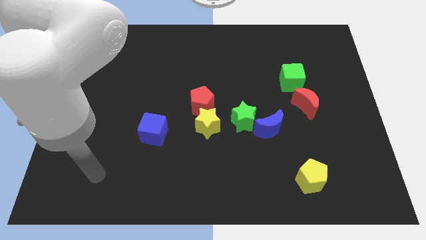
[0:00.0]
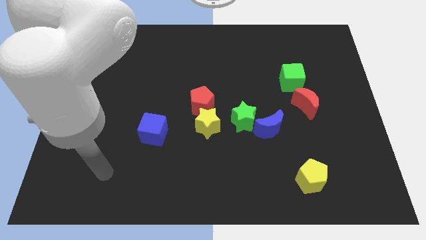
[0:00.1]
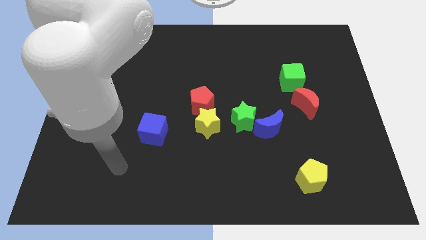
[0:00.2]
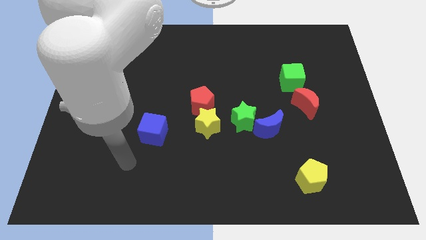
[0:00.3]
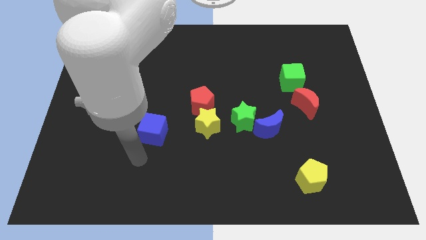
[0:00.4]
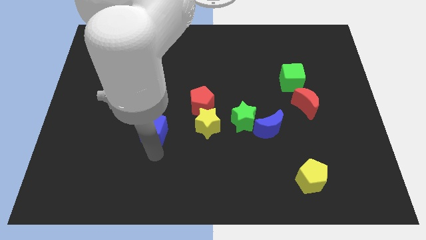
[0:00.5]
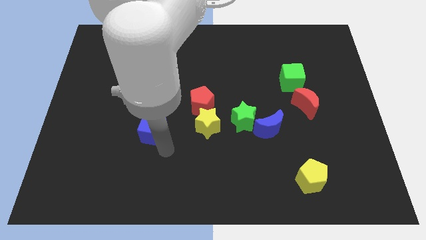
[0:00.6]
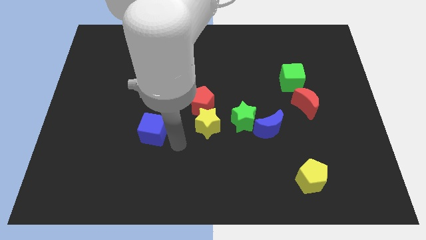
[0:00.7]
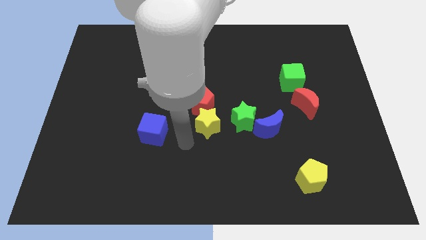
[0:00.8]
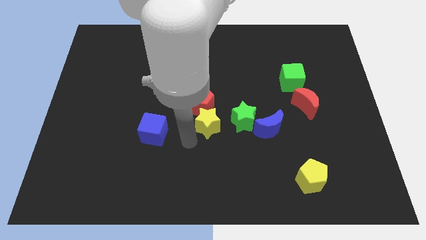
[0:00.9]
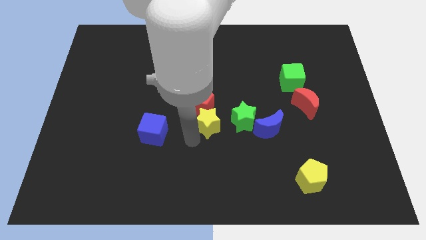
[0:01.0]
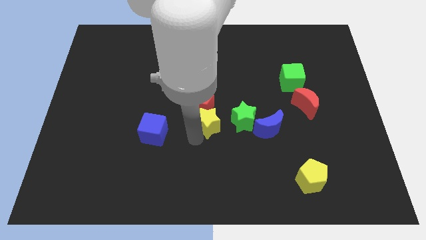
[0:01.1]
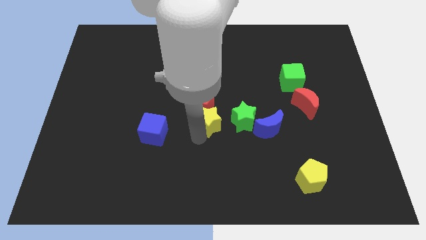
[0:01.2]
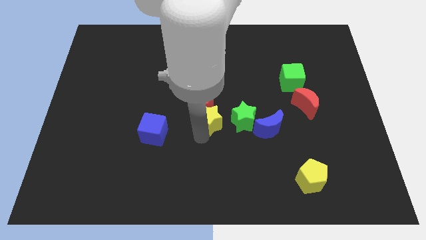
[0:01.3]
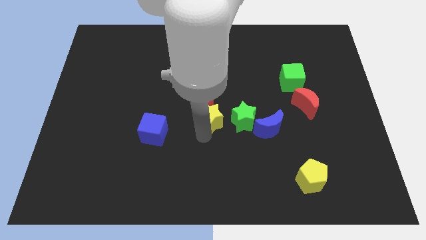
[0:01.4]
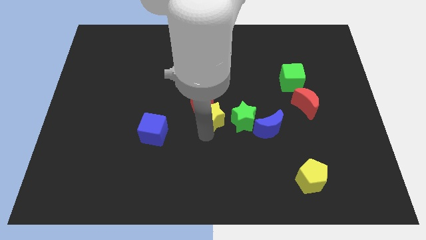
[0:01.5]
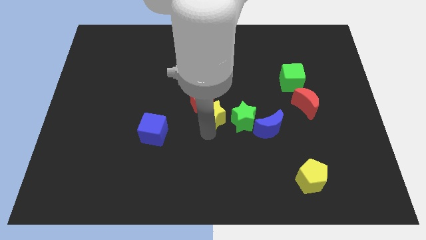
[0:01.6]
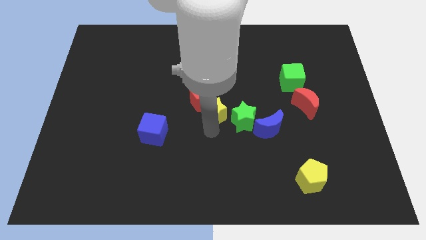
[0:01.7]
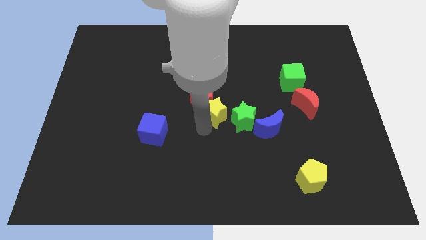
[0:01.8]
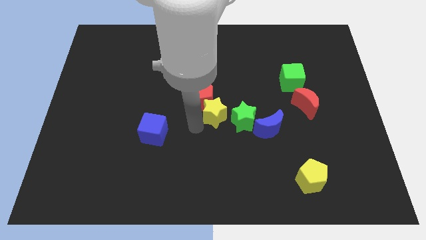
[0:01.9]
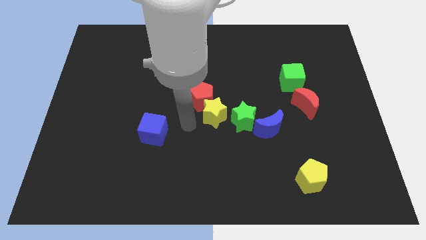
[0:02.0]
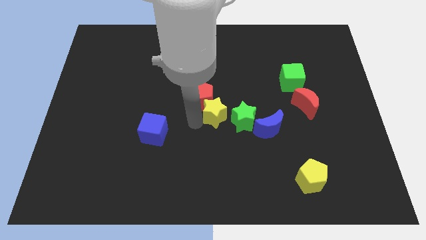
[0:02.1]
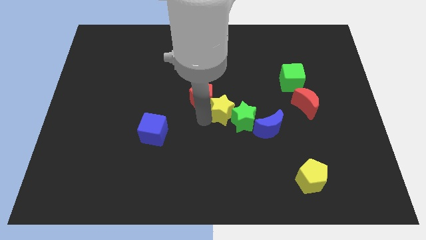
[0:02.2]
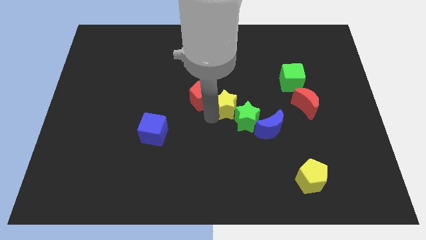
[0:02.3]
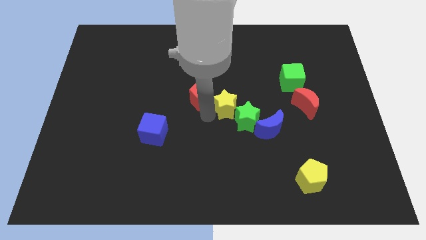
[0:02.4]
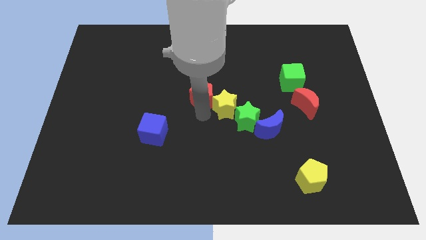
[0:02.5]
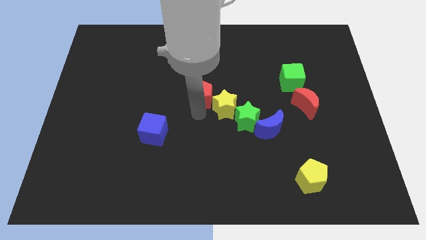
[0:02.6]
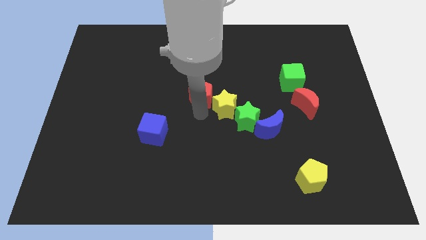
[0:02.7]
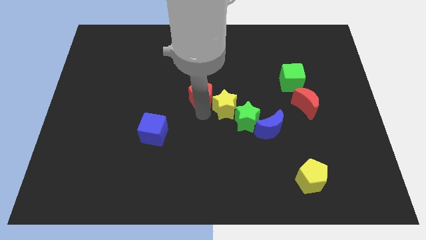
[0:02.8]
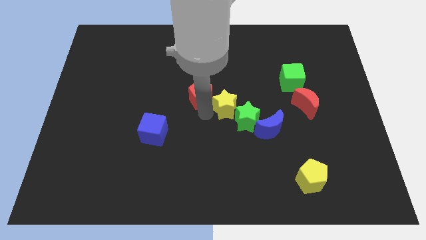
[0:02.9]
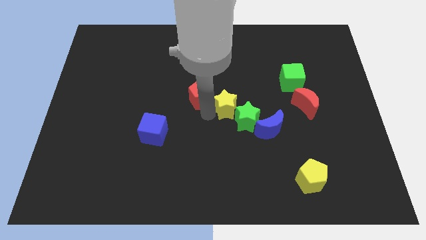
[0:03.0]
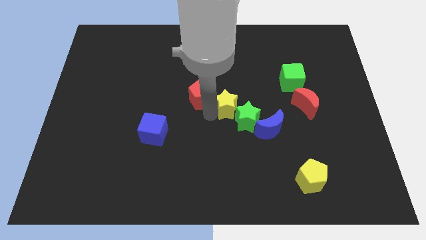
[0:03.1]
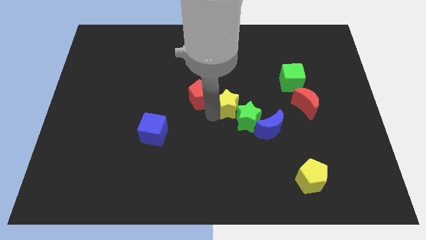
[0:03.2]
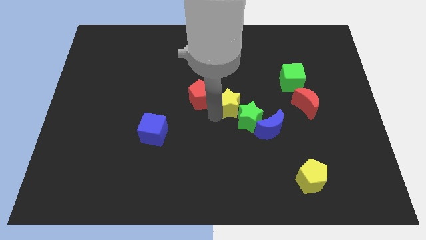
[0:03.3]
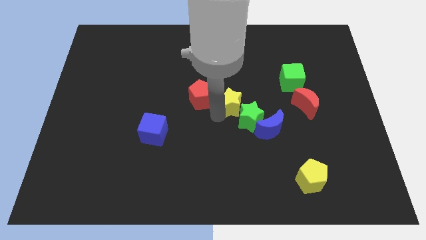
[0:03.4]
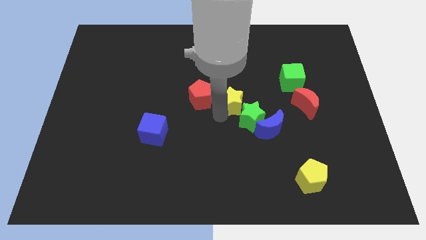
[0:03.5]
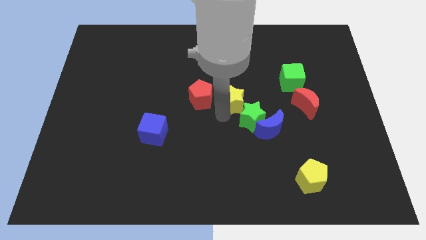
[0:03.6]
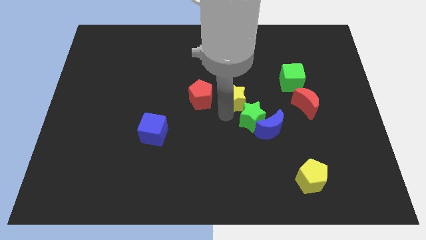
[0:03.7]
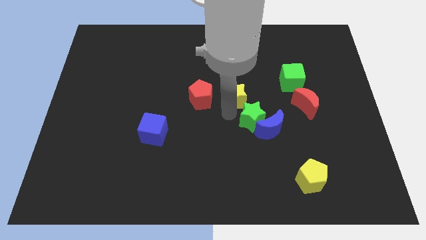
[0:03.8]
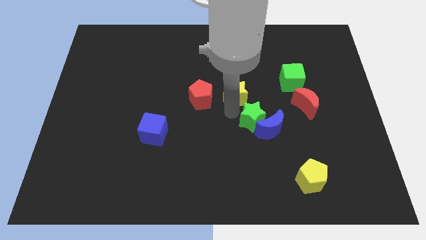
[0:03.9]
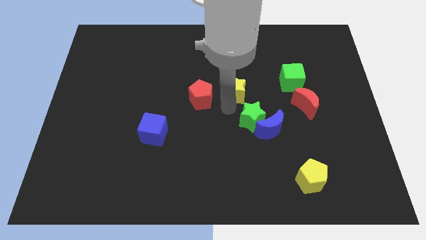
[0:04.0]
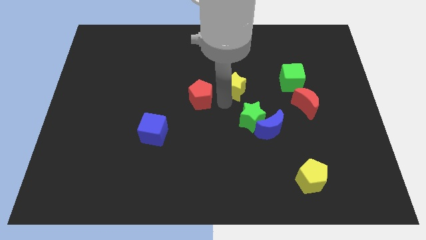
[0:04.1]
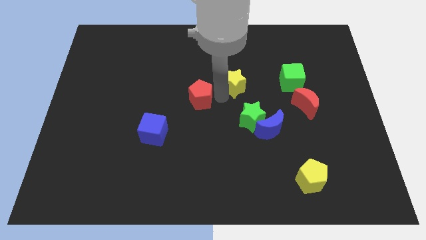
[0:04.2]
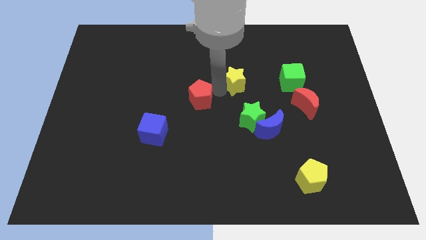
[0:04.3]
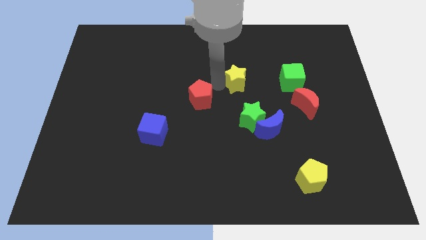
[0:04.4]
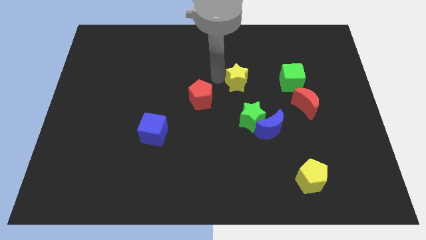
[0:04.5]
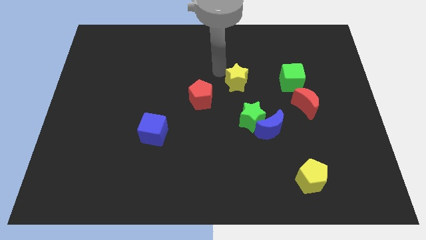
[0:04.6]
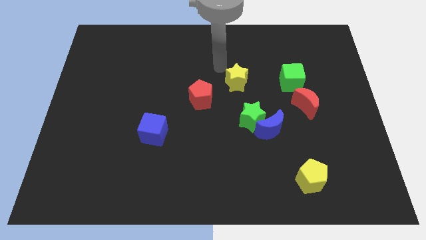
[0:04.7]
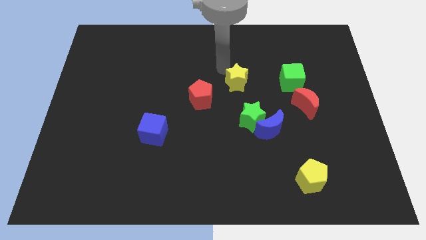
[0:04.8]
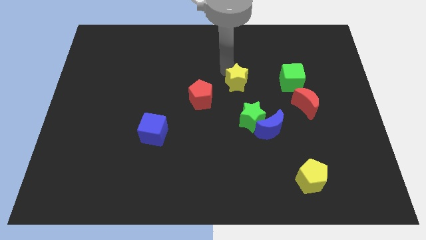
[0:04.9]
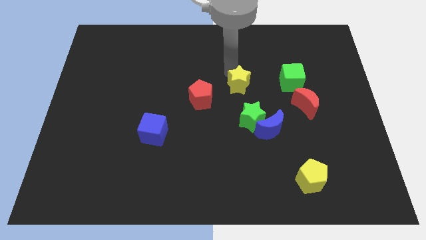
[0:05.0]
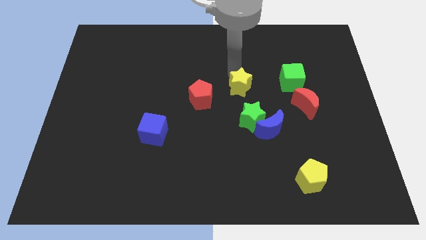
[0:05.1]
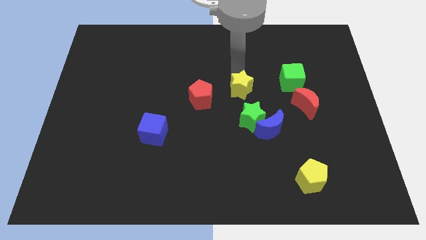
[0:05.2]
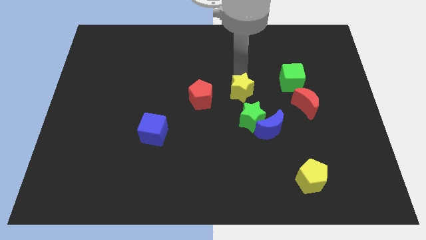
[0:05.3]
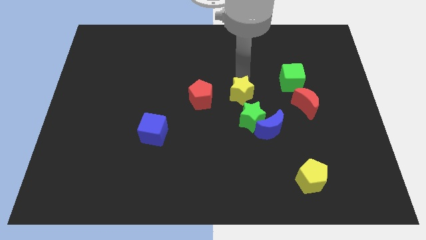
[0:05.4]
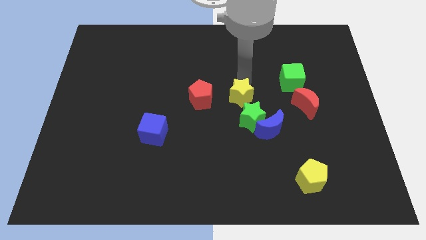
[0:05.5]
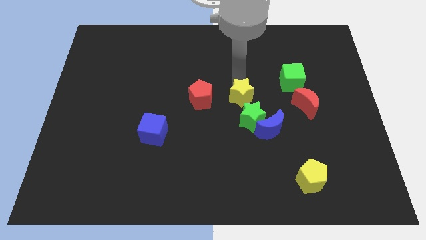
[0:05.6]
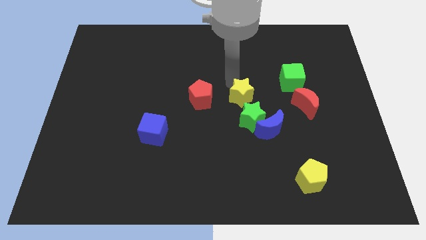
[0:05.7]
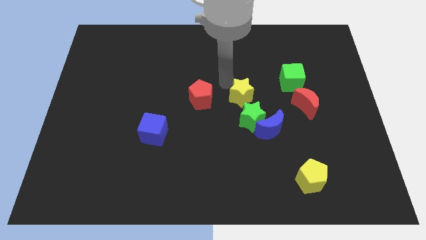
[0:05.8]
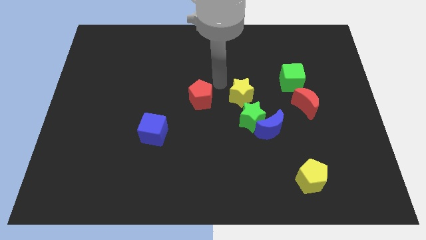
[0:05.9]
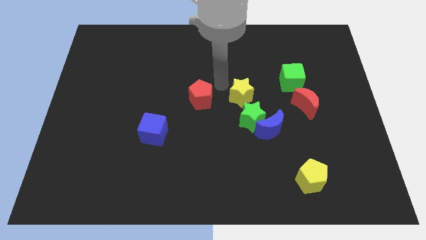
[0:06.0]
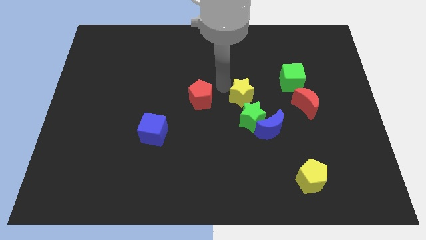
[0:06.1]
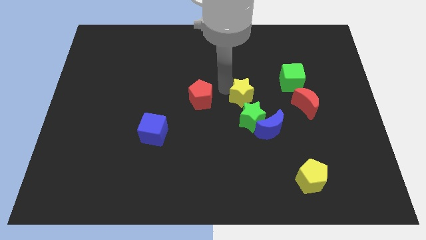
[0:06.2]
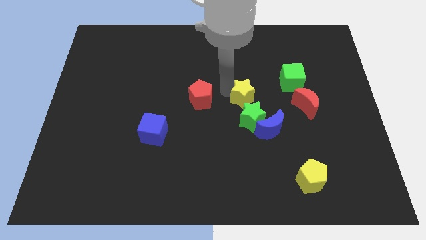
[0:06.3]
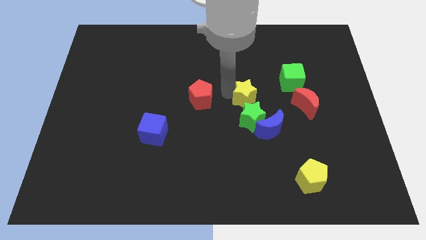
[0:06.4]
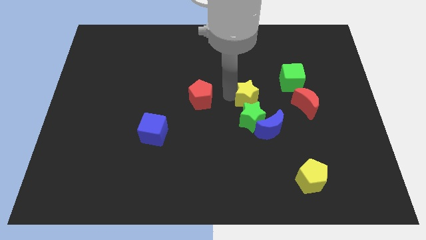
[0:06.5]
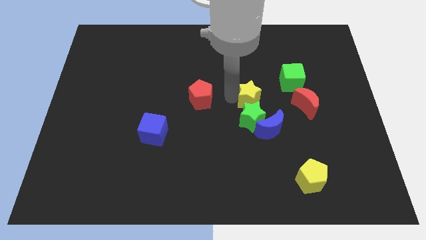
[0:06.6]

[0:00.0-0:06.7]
slightly push the yellow star right

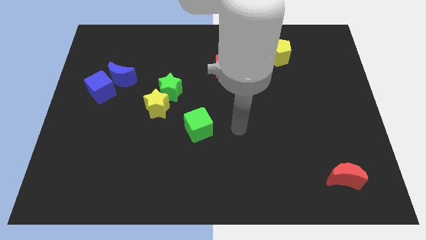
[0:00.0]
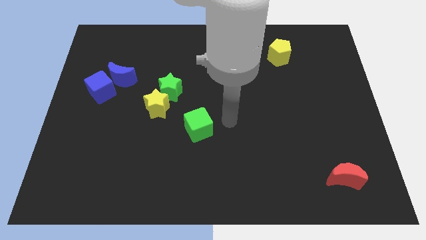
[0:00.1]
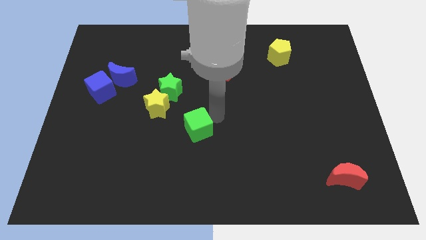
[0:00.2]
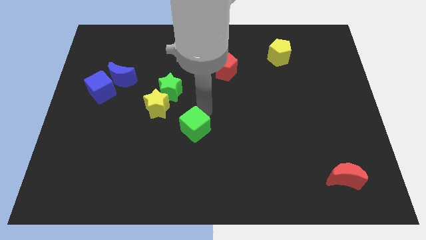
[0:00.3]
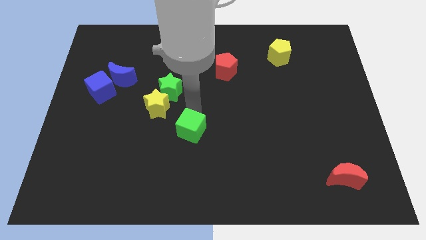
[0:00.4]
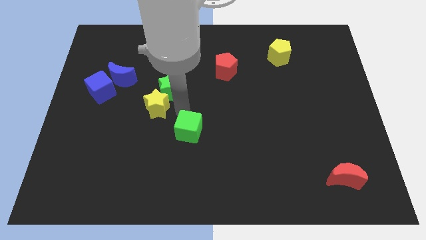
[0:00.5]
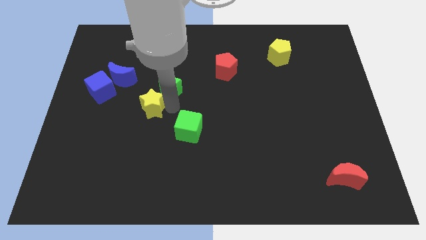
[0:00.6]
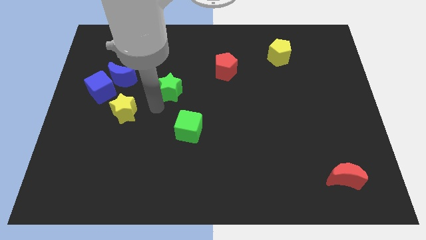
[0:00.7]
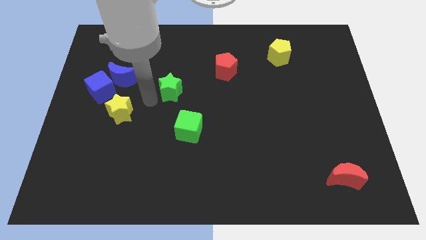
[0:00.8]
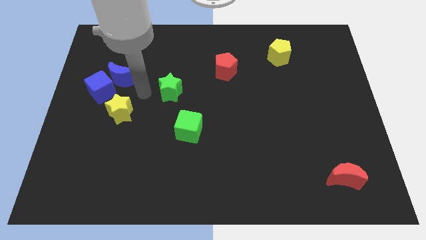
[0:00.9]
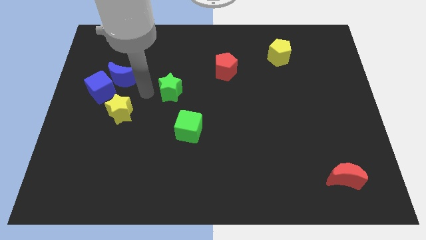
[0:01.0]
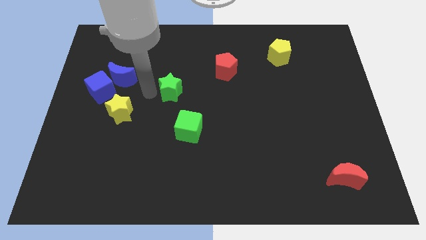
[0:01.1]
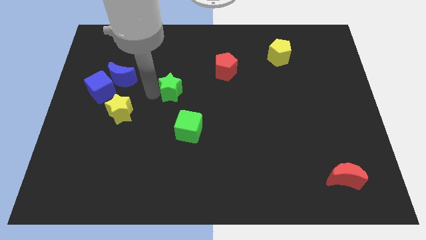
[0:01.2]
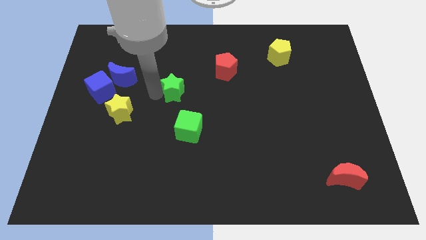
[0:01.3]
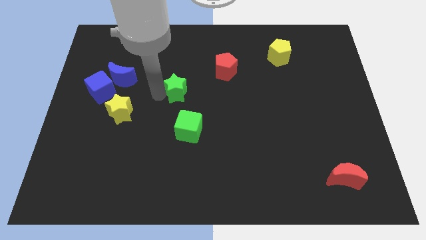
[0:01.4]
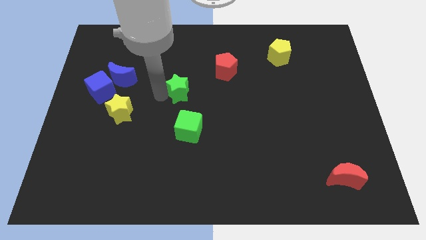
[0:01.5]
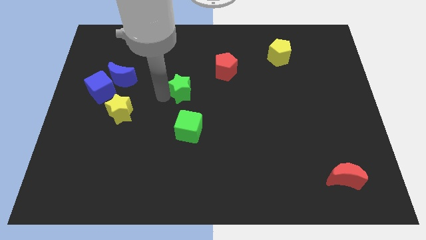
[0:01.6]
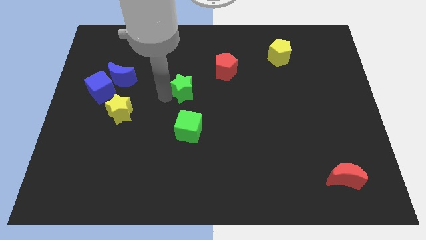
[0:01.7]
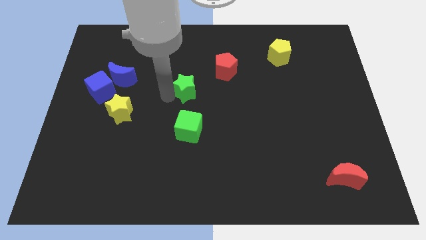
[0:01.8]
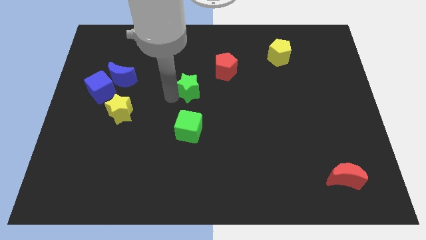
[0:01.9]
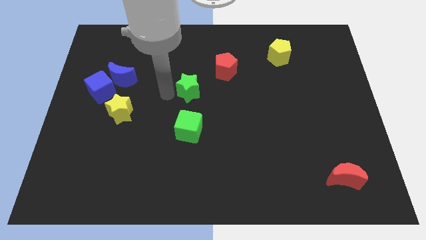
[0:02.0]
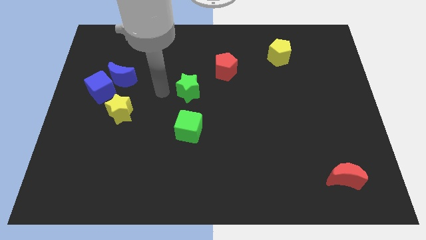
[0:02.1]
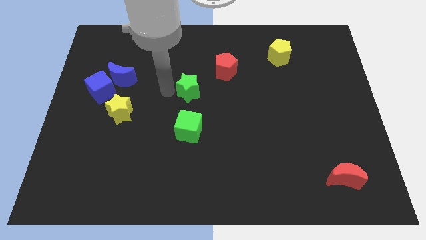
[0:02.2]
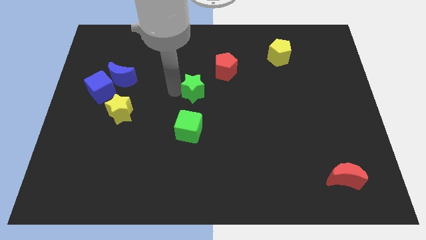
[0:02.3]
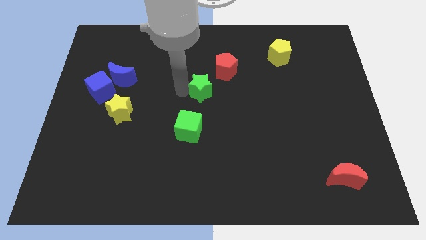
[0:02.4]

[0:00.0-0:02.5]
slightly push the green star right
